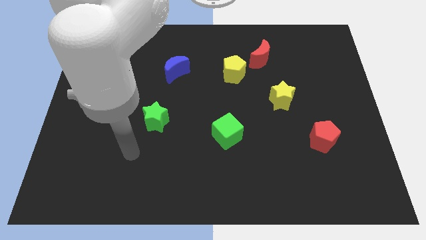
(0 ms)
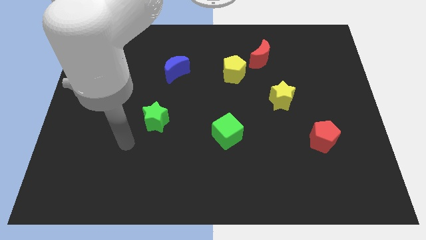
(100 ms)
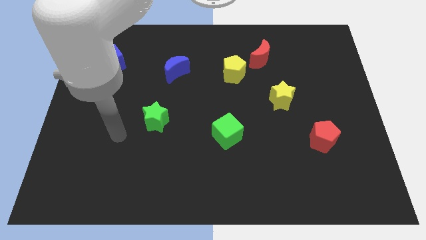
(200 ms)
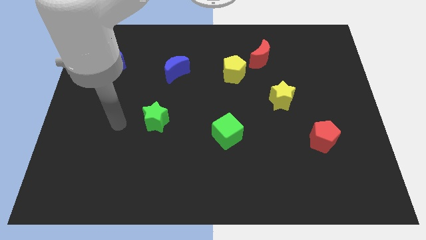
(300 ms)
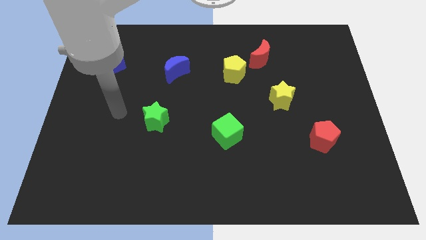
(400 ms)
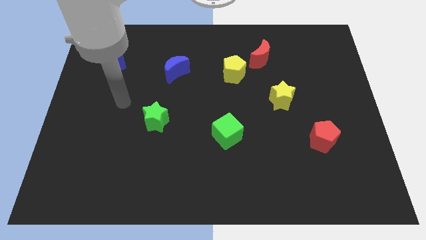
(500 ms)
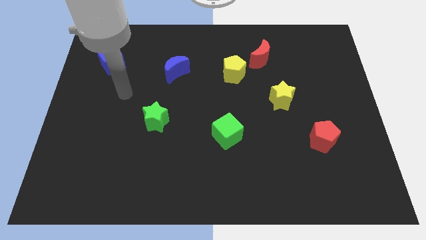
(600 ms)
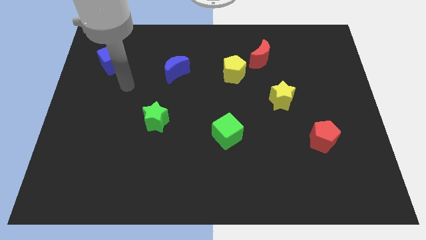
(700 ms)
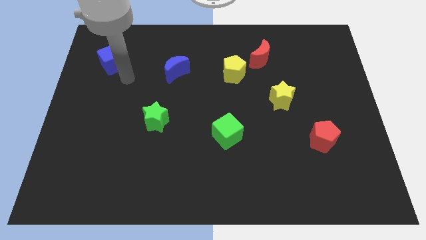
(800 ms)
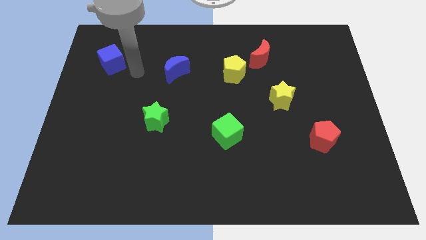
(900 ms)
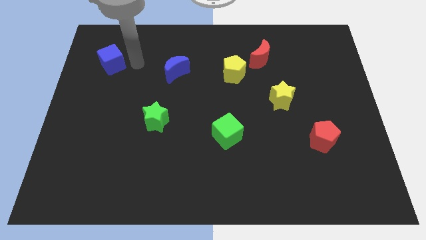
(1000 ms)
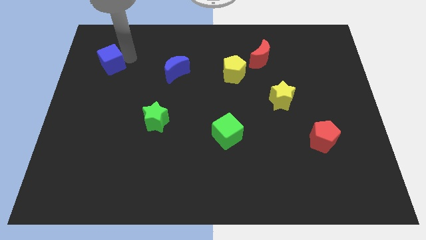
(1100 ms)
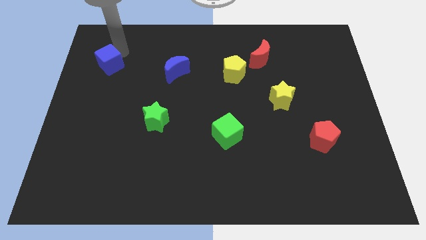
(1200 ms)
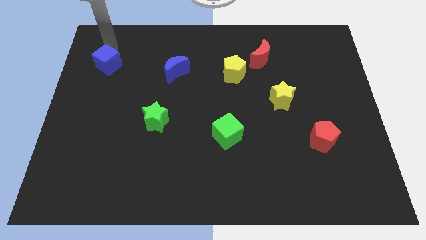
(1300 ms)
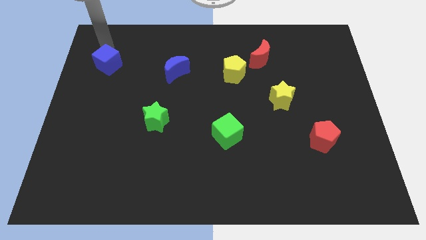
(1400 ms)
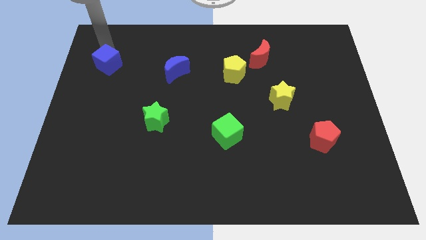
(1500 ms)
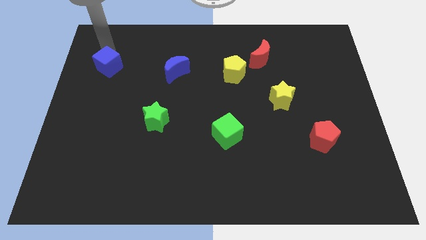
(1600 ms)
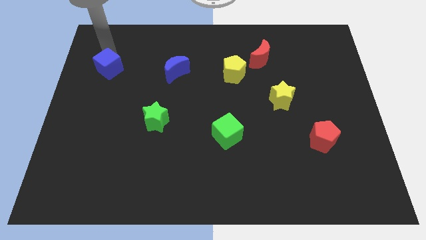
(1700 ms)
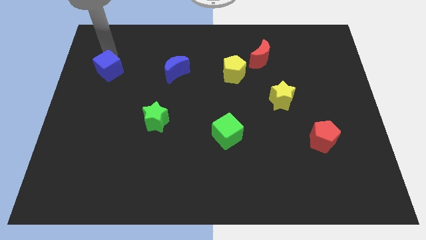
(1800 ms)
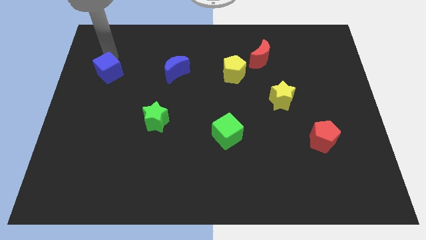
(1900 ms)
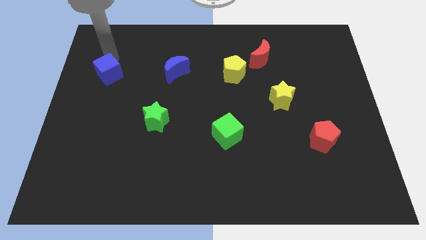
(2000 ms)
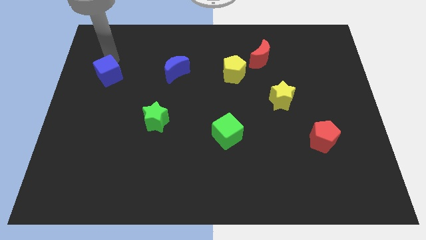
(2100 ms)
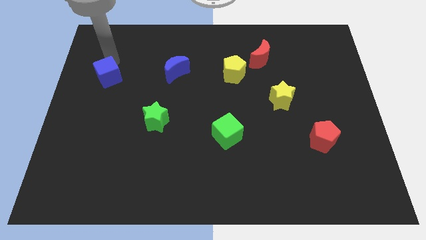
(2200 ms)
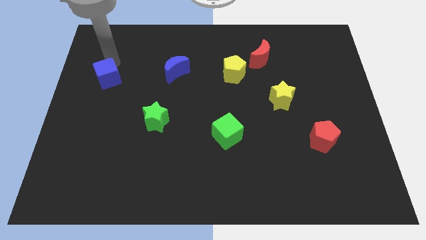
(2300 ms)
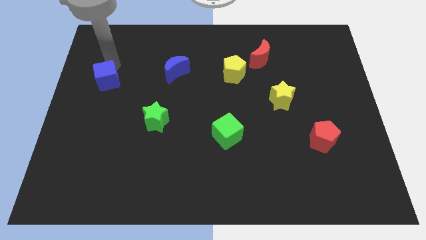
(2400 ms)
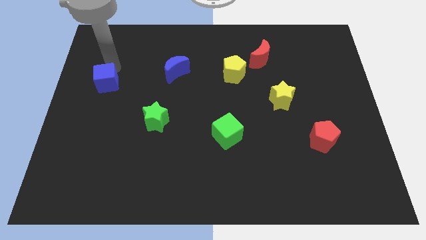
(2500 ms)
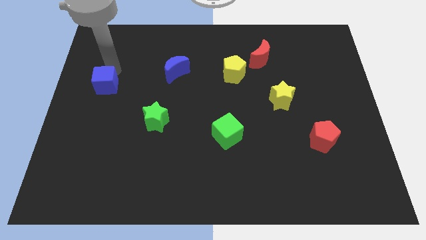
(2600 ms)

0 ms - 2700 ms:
push the blue cube downwards a little

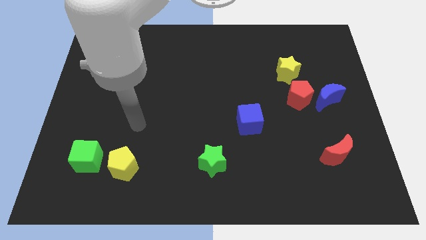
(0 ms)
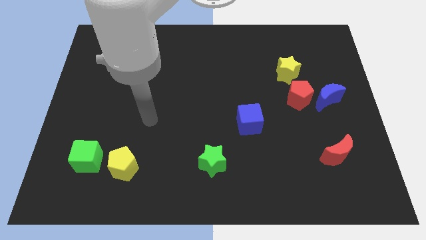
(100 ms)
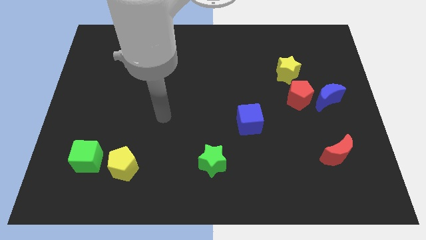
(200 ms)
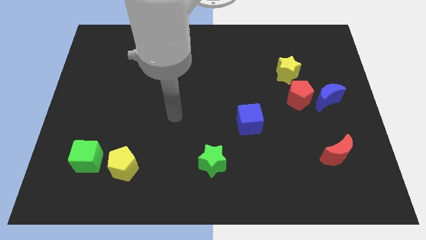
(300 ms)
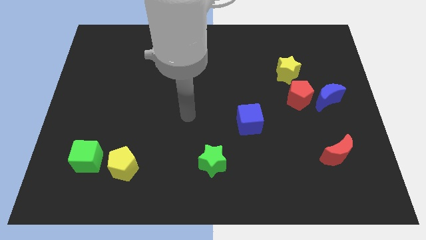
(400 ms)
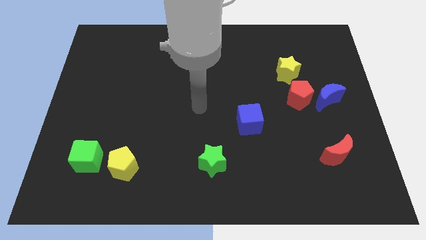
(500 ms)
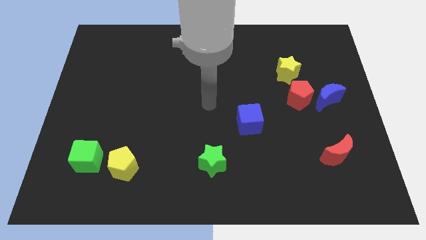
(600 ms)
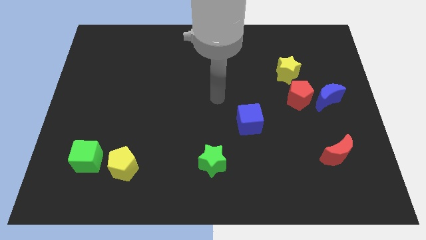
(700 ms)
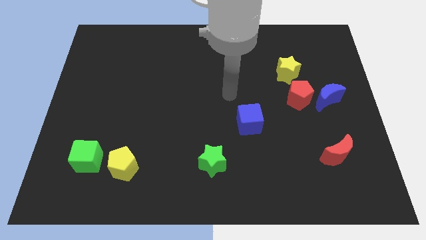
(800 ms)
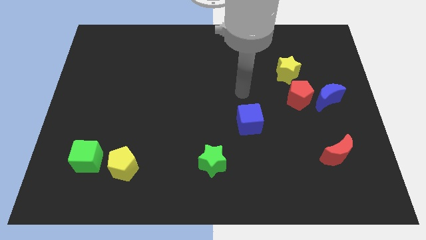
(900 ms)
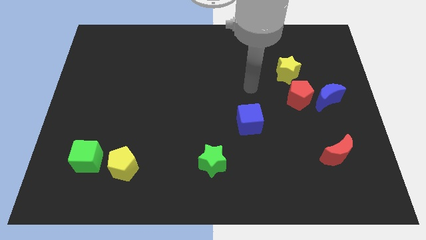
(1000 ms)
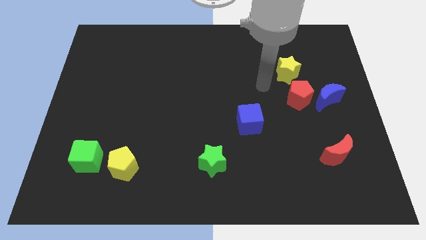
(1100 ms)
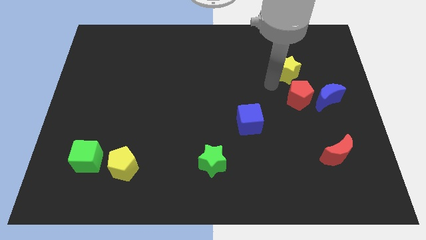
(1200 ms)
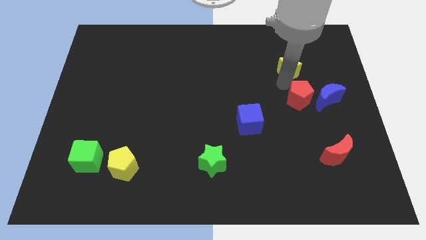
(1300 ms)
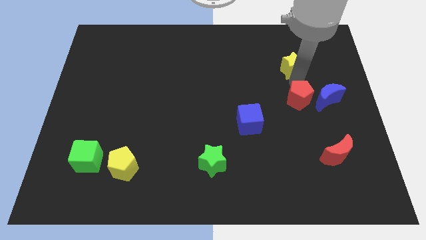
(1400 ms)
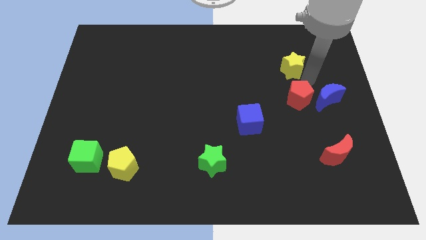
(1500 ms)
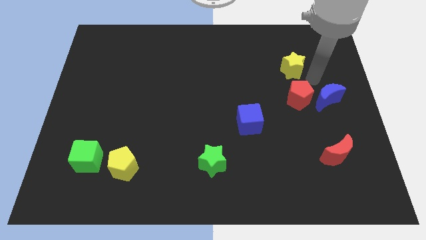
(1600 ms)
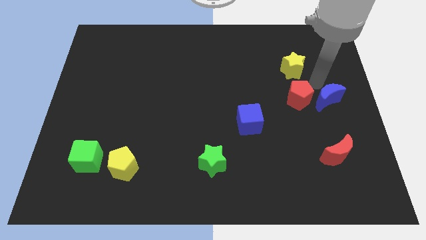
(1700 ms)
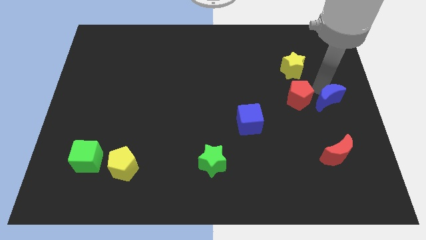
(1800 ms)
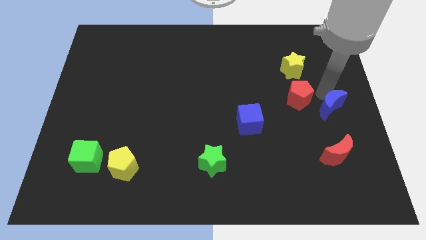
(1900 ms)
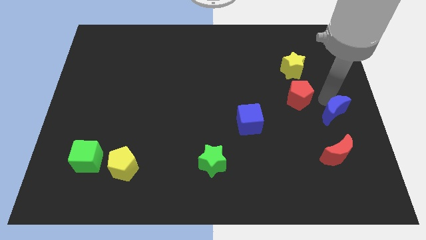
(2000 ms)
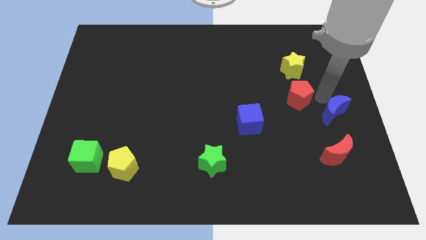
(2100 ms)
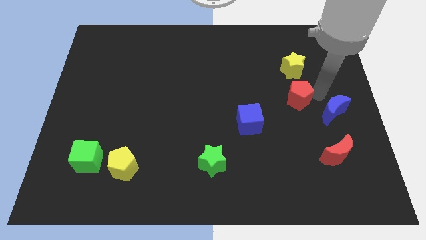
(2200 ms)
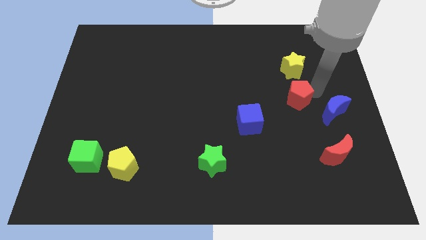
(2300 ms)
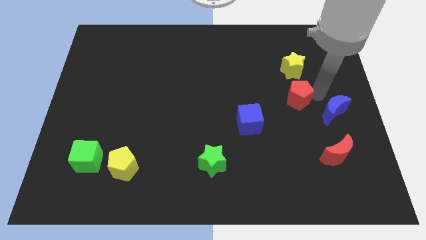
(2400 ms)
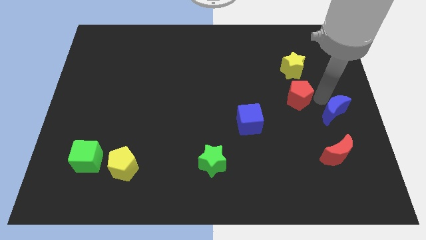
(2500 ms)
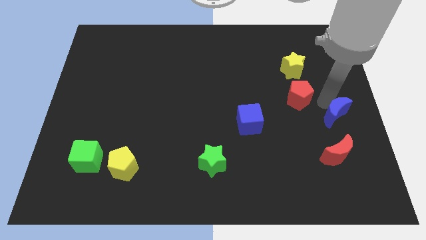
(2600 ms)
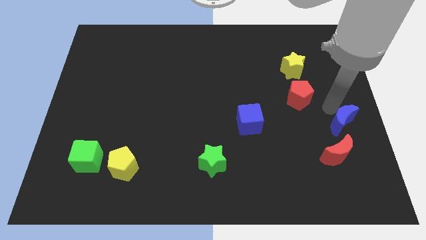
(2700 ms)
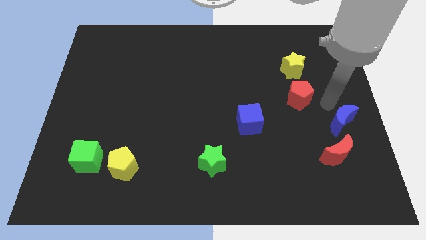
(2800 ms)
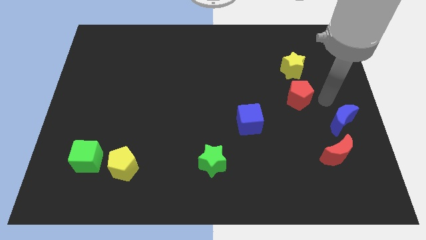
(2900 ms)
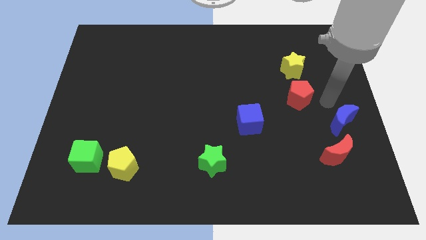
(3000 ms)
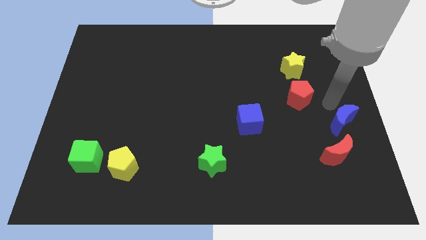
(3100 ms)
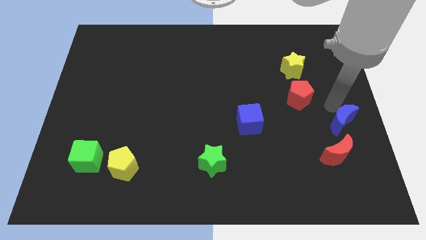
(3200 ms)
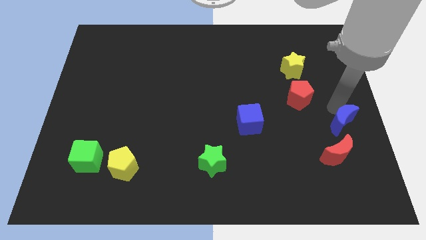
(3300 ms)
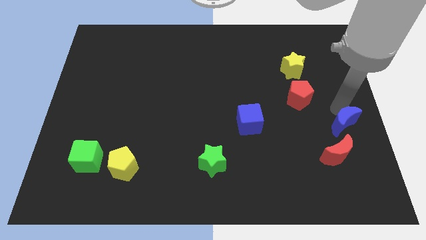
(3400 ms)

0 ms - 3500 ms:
move the blue moon slightly downwards

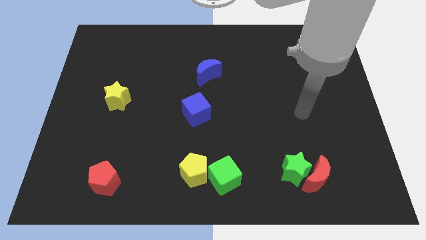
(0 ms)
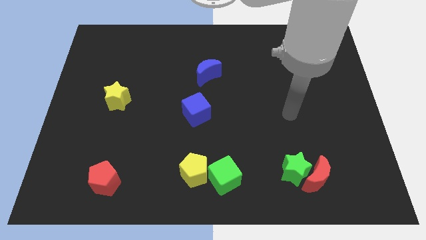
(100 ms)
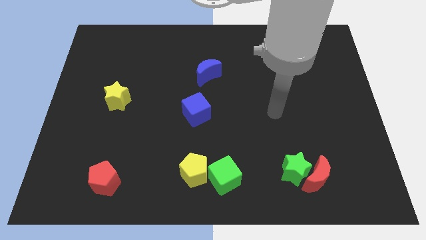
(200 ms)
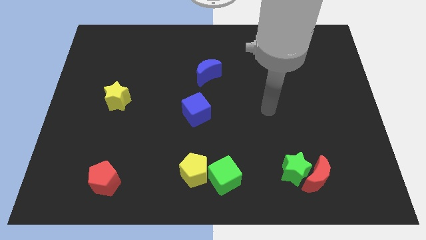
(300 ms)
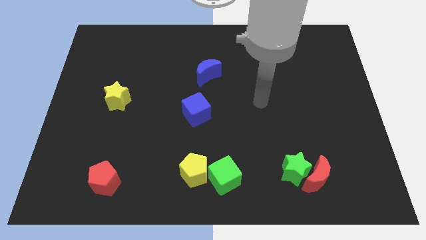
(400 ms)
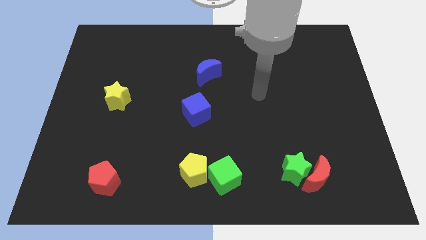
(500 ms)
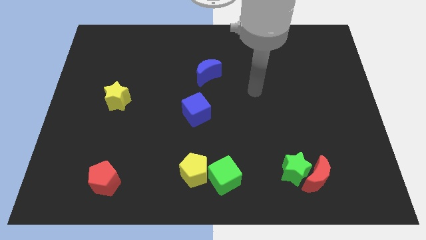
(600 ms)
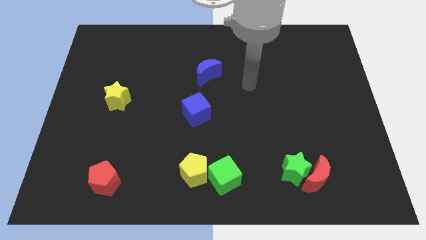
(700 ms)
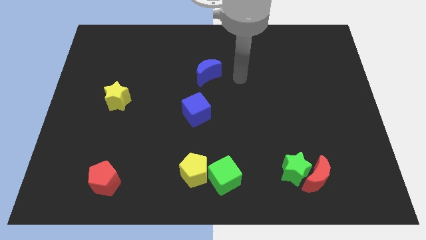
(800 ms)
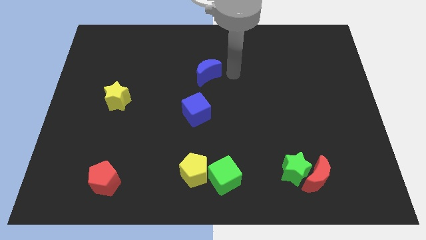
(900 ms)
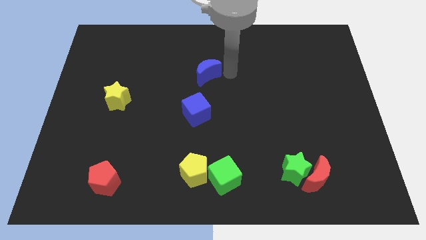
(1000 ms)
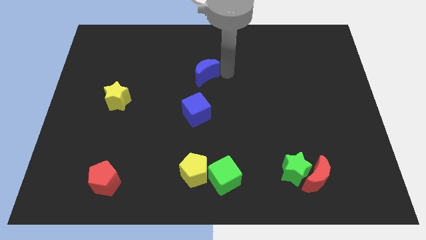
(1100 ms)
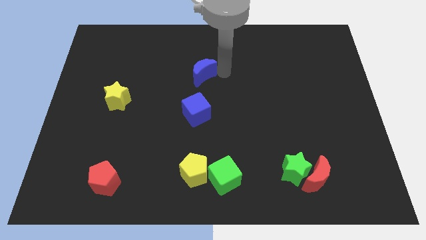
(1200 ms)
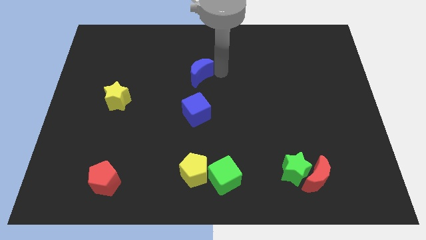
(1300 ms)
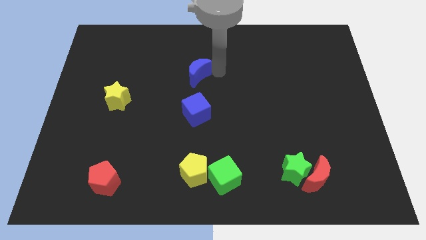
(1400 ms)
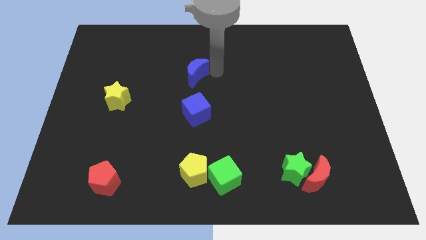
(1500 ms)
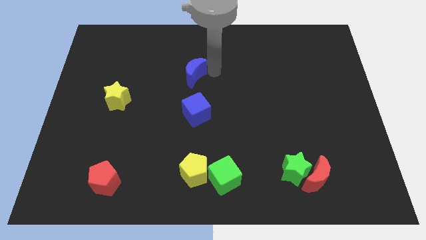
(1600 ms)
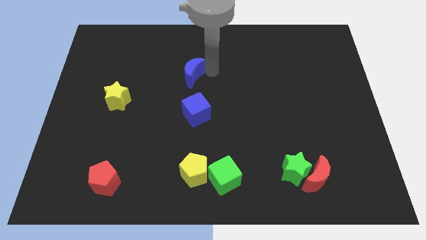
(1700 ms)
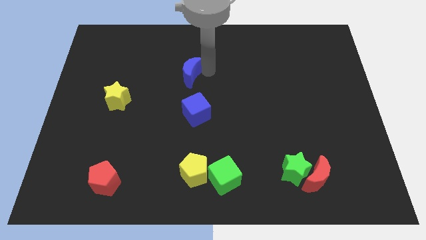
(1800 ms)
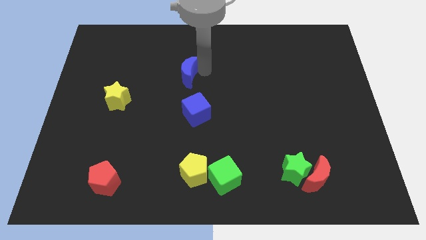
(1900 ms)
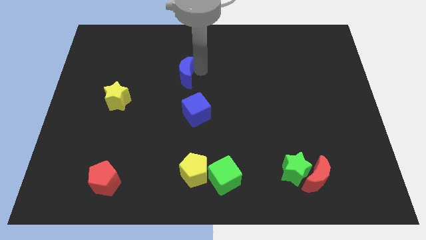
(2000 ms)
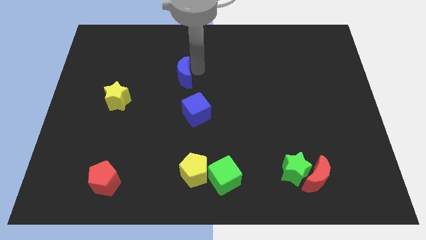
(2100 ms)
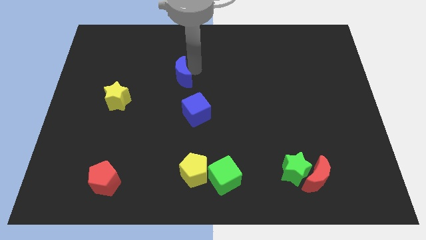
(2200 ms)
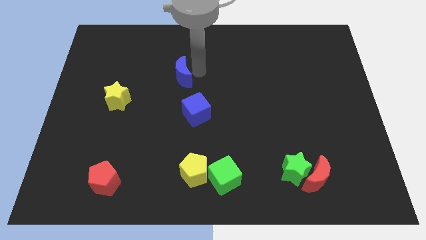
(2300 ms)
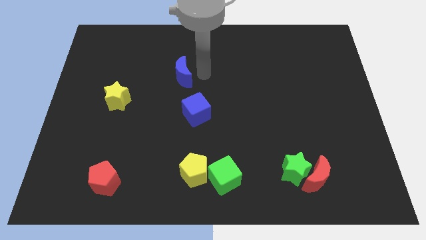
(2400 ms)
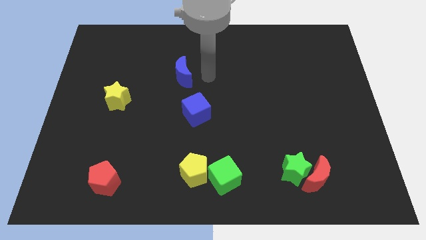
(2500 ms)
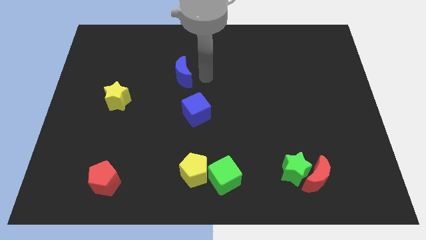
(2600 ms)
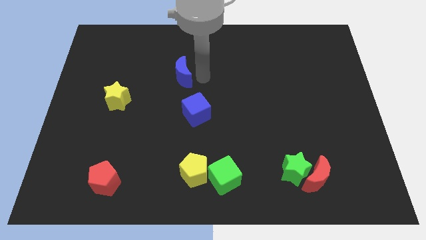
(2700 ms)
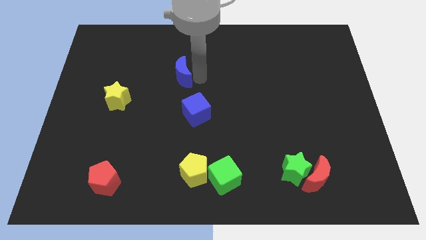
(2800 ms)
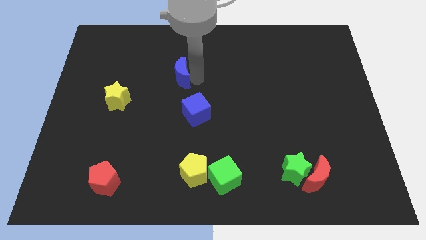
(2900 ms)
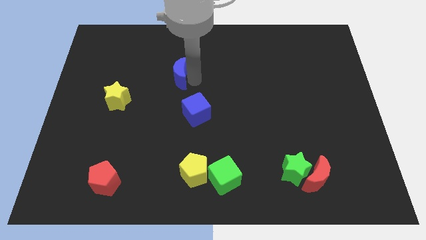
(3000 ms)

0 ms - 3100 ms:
move the blue moon somewhat left
